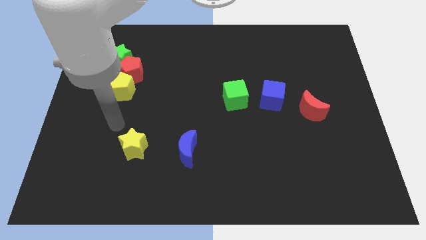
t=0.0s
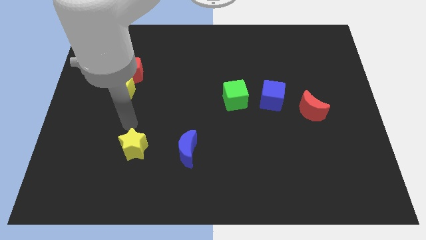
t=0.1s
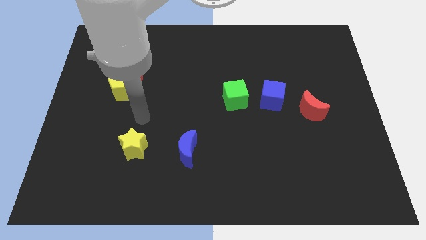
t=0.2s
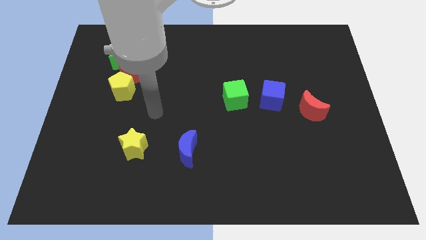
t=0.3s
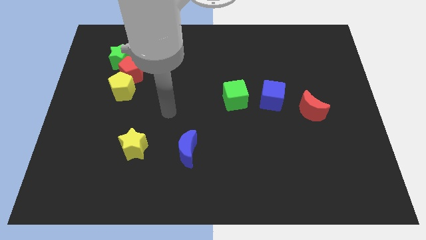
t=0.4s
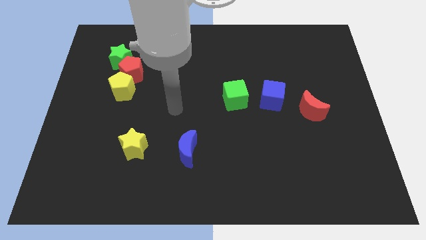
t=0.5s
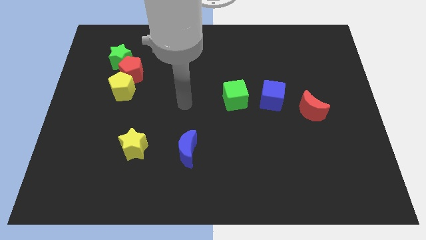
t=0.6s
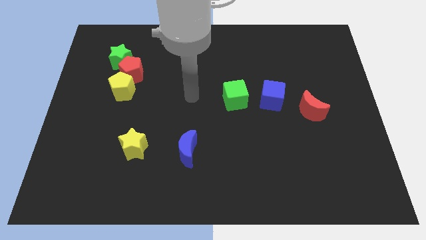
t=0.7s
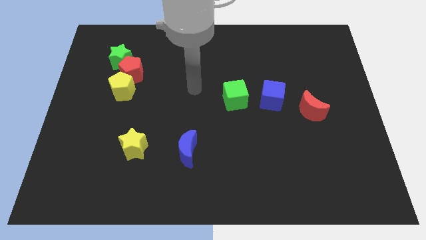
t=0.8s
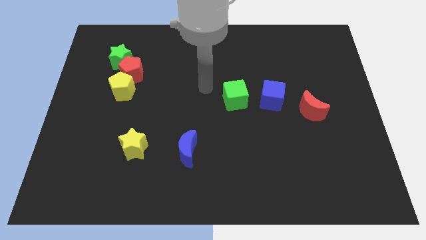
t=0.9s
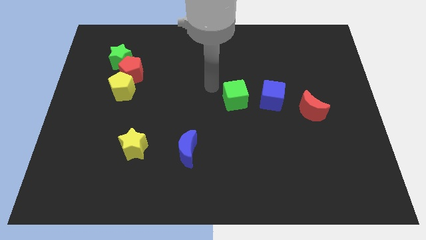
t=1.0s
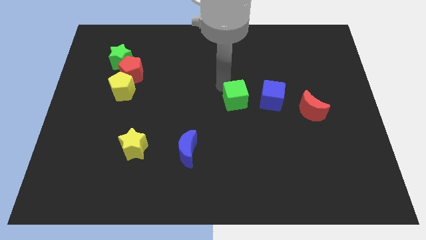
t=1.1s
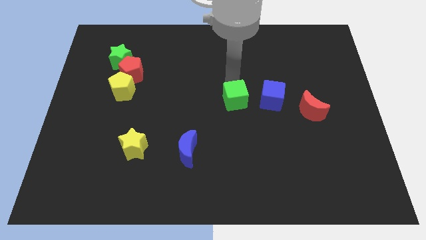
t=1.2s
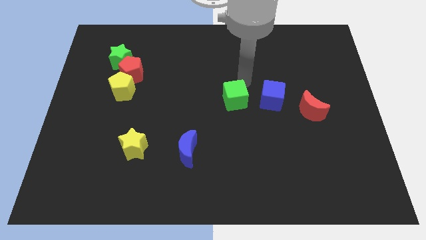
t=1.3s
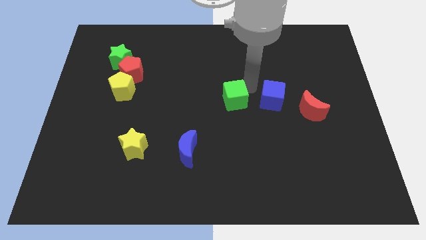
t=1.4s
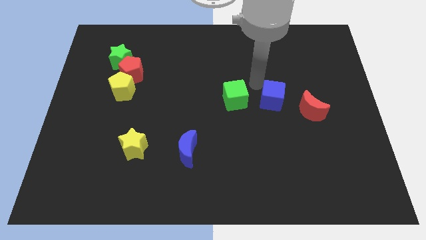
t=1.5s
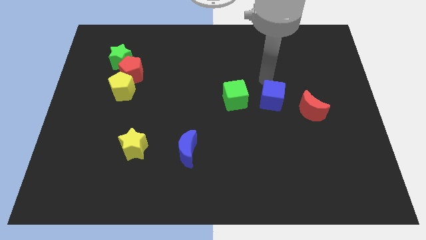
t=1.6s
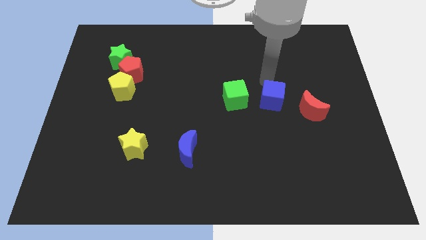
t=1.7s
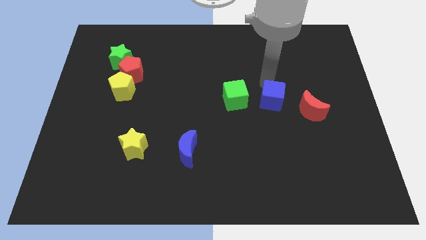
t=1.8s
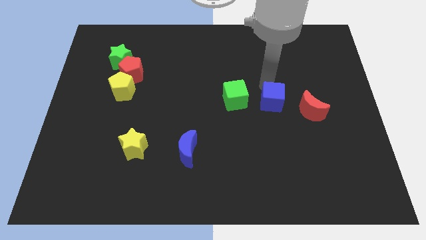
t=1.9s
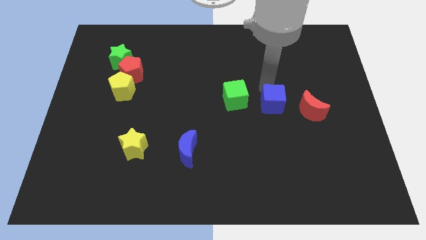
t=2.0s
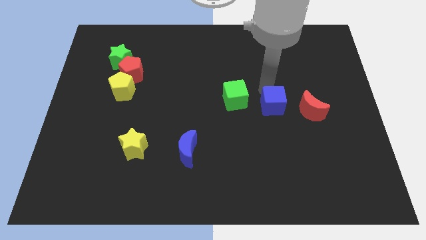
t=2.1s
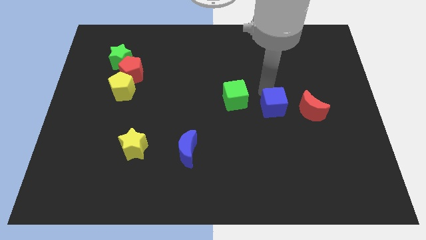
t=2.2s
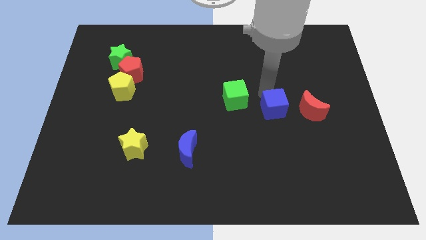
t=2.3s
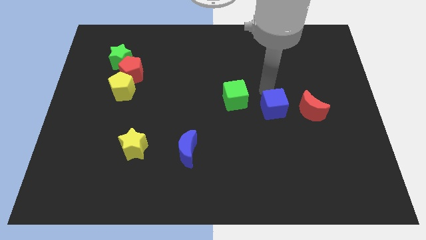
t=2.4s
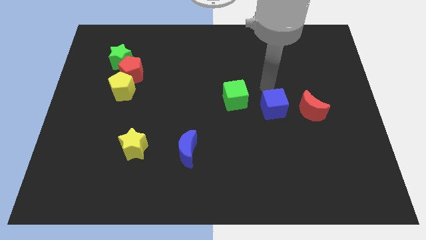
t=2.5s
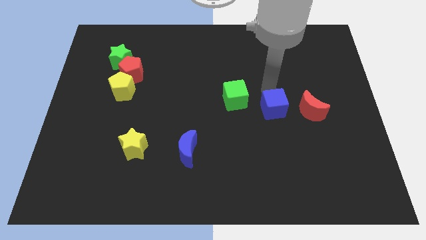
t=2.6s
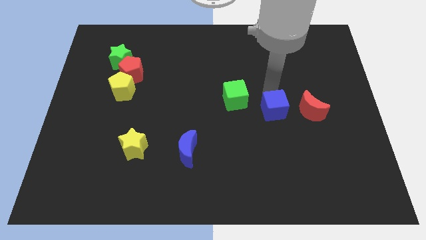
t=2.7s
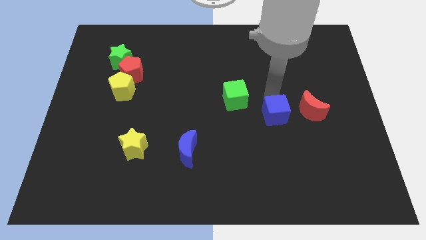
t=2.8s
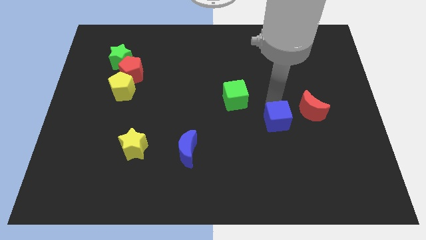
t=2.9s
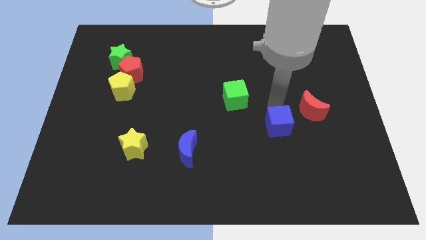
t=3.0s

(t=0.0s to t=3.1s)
push the blue cube down a little

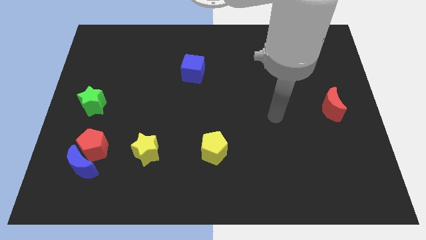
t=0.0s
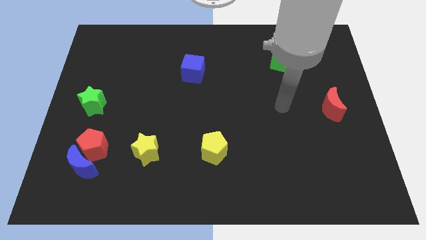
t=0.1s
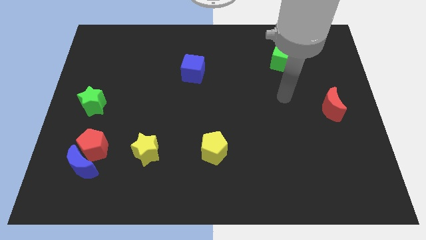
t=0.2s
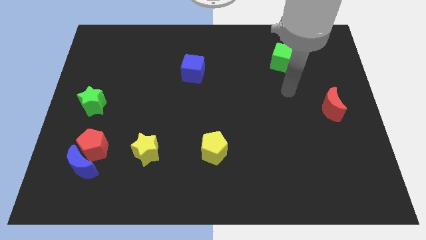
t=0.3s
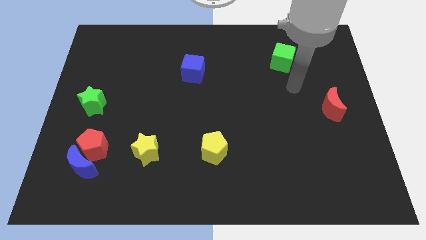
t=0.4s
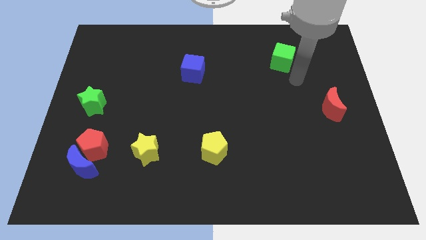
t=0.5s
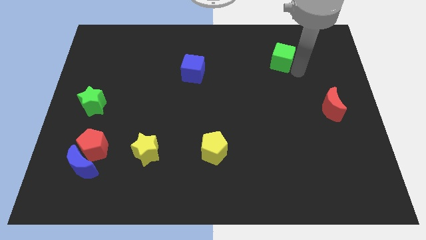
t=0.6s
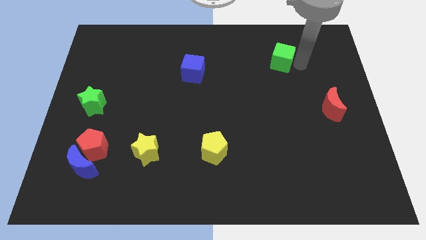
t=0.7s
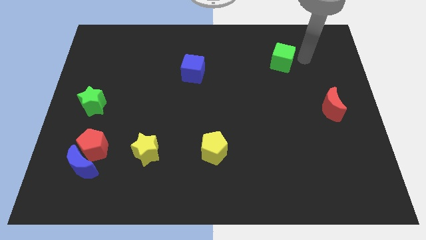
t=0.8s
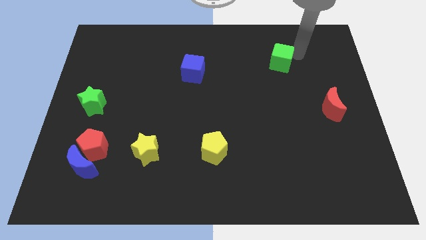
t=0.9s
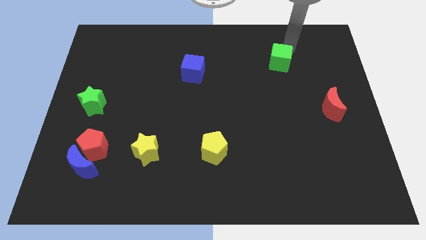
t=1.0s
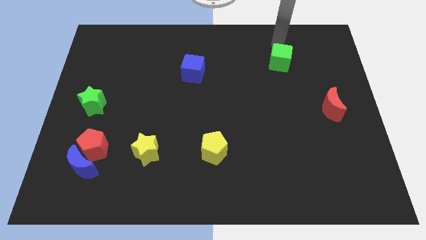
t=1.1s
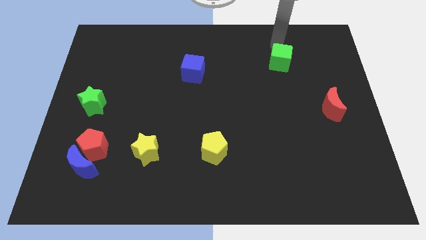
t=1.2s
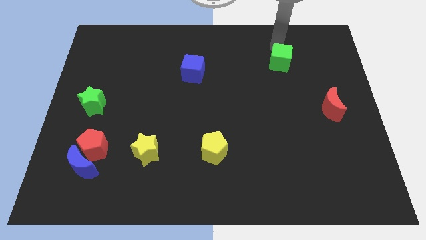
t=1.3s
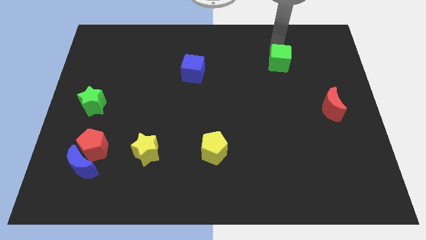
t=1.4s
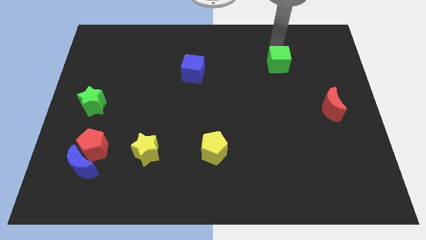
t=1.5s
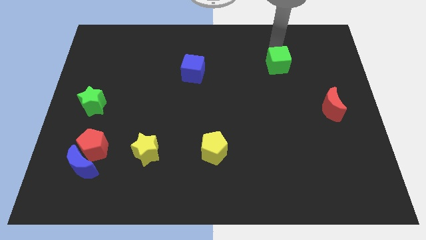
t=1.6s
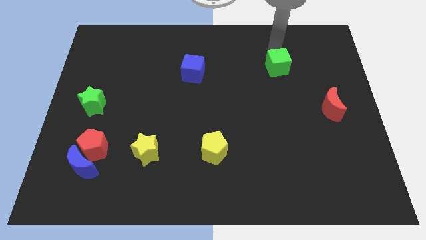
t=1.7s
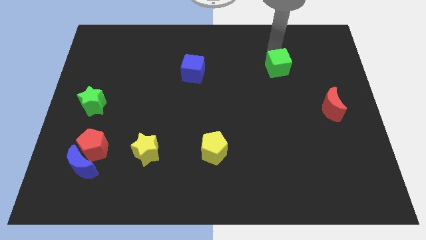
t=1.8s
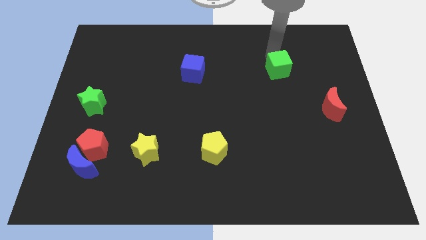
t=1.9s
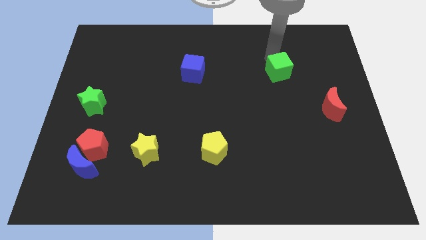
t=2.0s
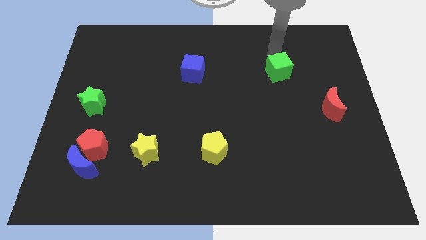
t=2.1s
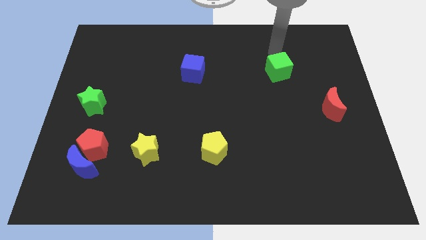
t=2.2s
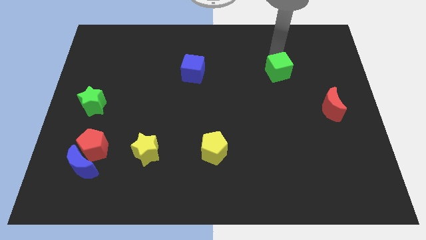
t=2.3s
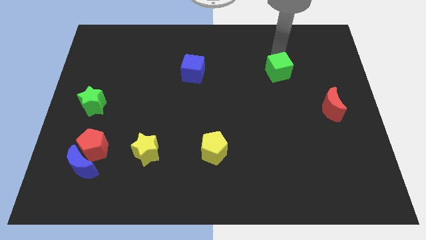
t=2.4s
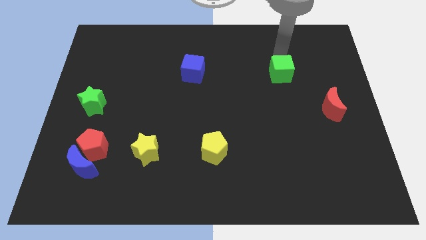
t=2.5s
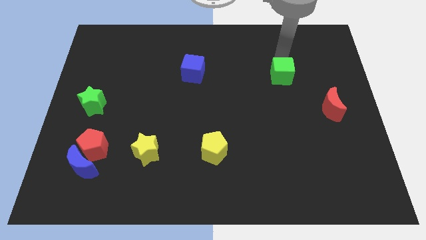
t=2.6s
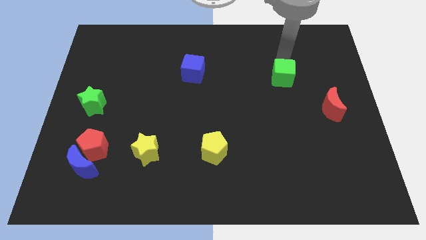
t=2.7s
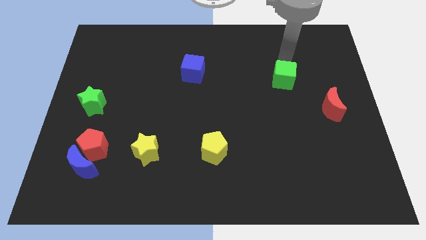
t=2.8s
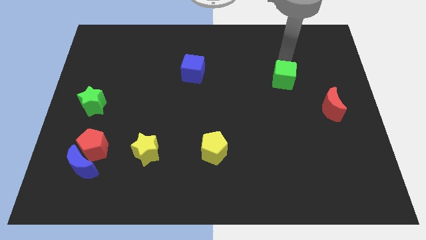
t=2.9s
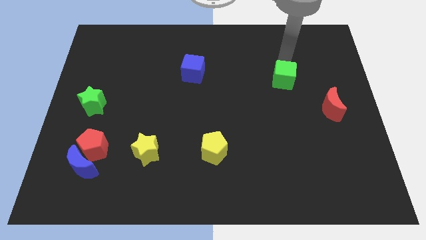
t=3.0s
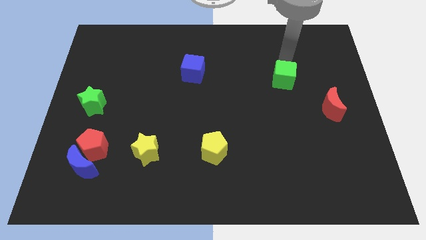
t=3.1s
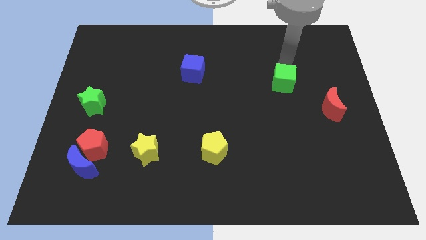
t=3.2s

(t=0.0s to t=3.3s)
move the green cube slightly down

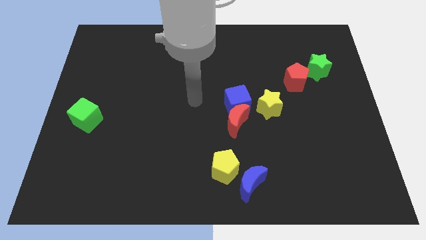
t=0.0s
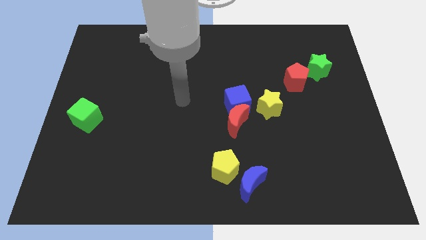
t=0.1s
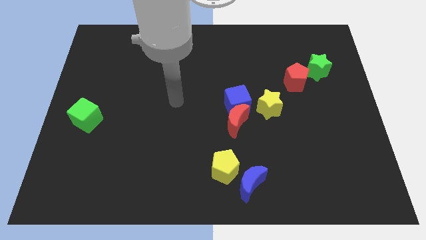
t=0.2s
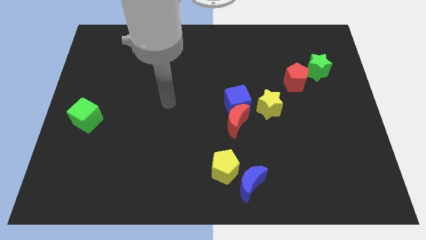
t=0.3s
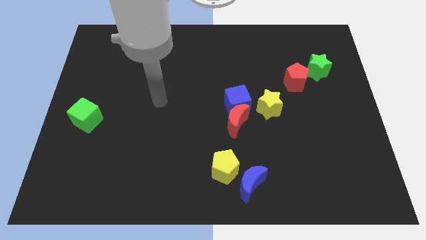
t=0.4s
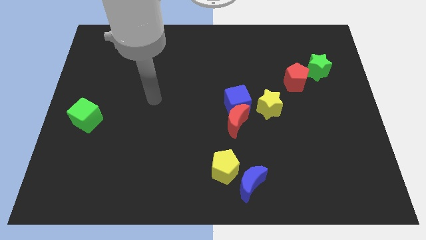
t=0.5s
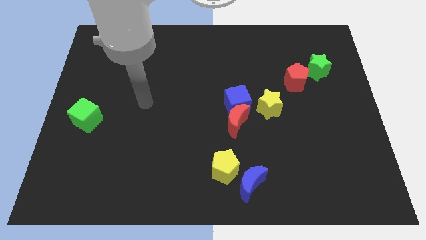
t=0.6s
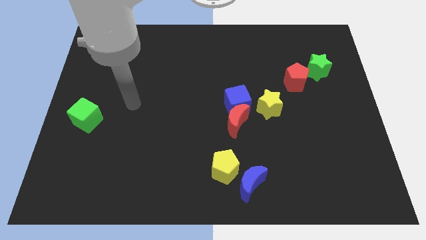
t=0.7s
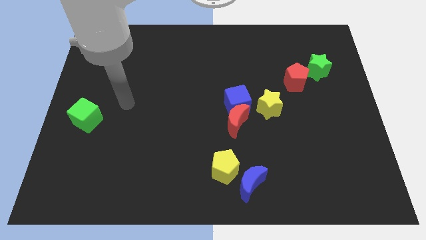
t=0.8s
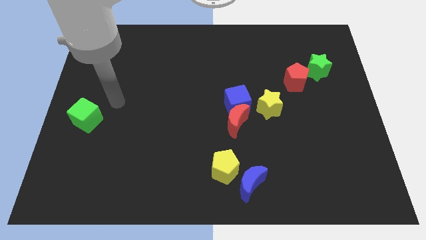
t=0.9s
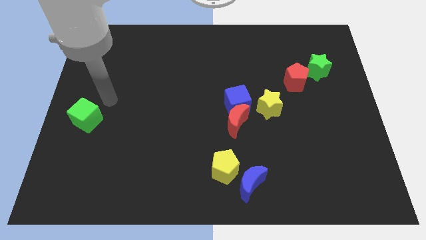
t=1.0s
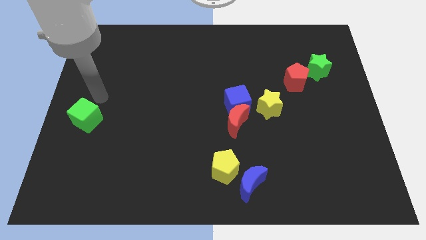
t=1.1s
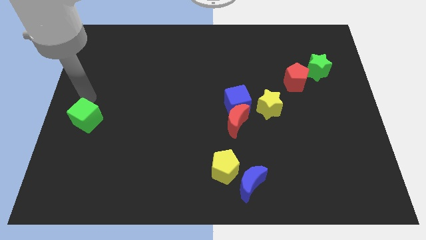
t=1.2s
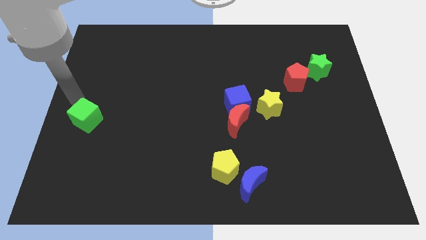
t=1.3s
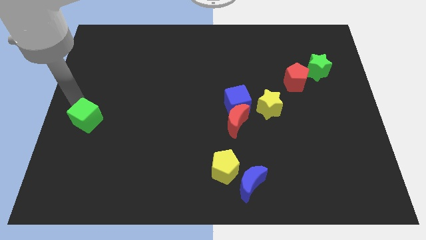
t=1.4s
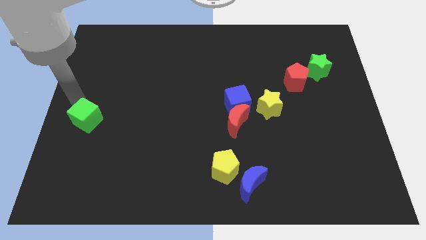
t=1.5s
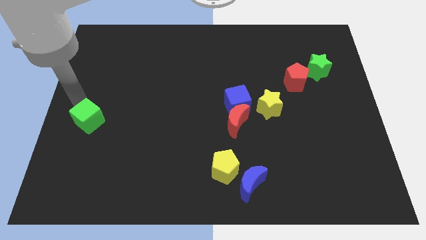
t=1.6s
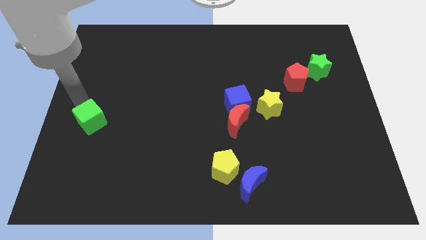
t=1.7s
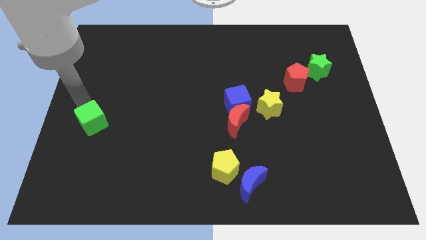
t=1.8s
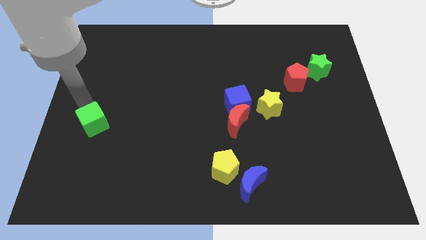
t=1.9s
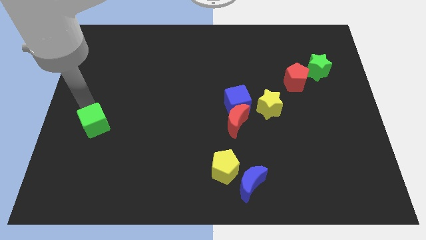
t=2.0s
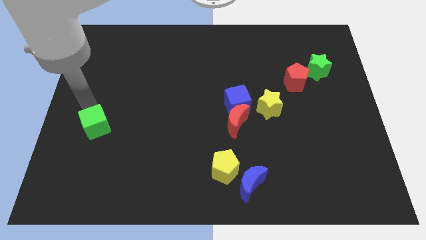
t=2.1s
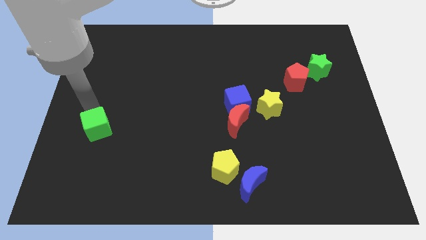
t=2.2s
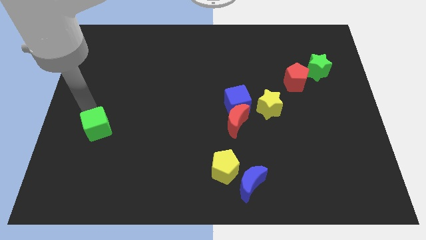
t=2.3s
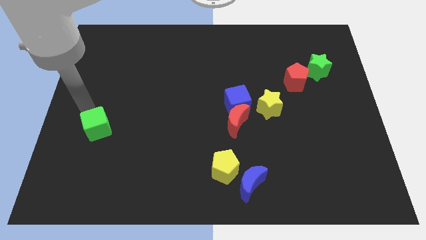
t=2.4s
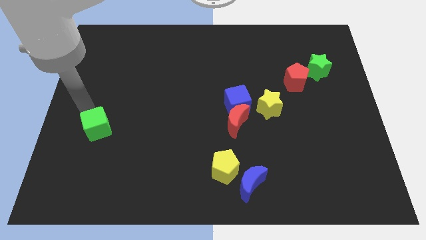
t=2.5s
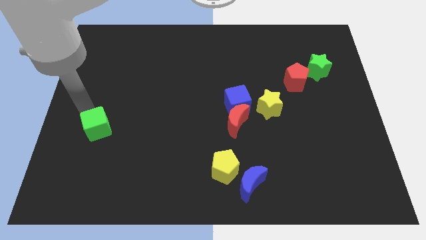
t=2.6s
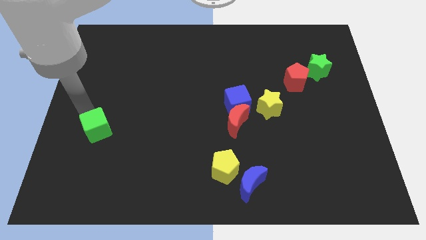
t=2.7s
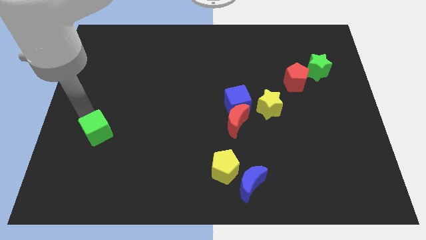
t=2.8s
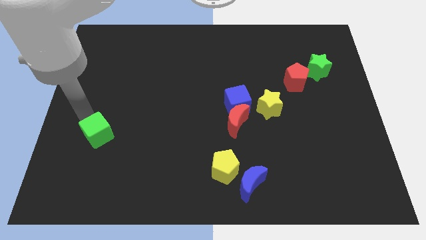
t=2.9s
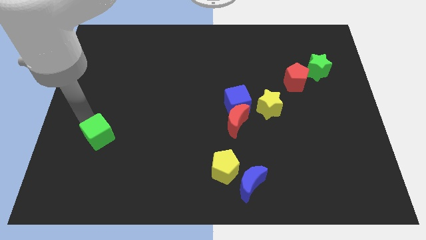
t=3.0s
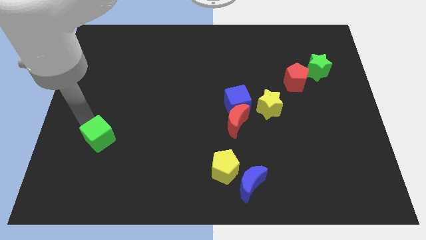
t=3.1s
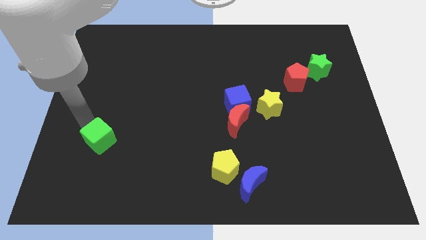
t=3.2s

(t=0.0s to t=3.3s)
slightly slide the green cube downwards and to the right
